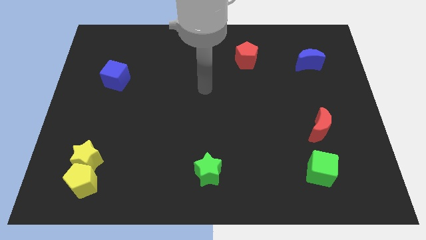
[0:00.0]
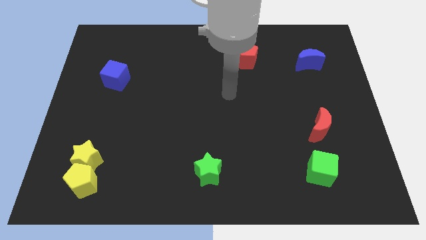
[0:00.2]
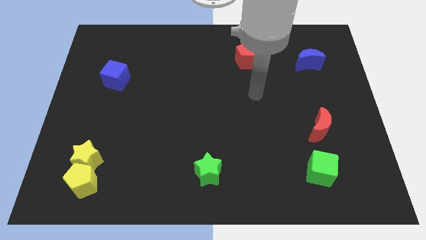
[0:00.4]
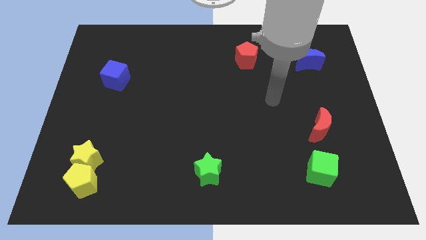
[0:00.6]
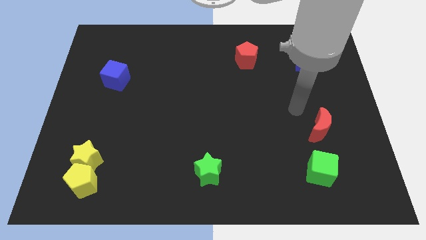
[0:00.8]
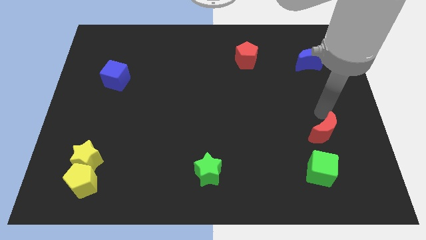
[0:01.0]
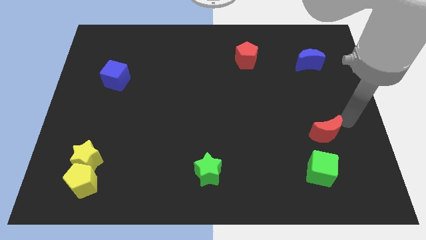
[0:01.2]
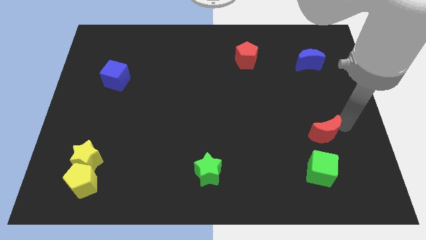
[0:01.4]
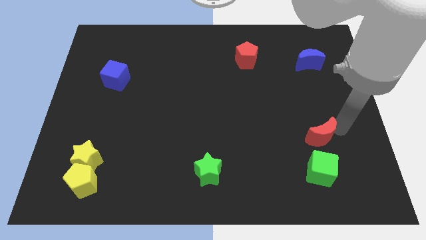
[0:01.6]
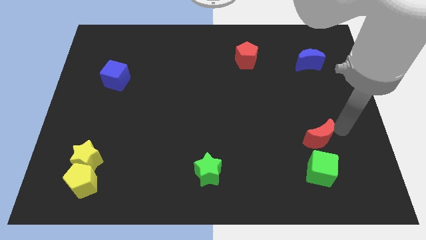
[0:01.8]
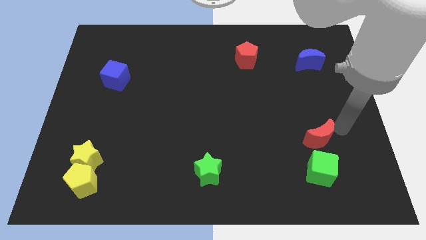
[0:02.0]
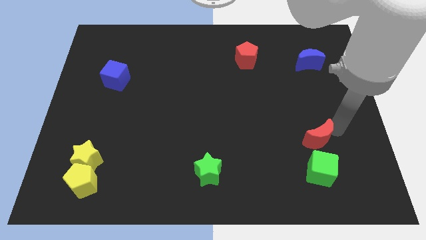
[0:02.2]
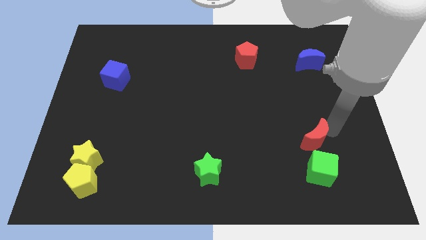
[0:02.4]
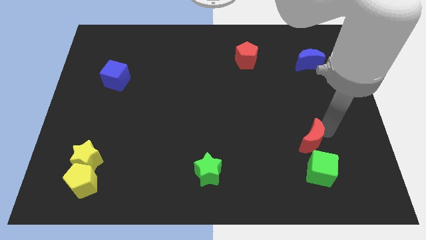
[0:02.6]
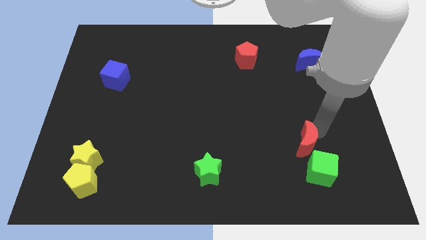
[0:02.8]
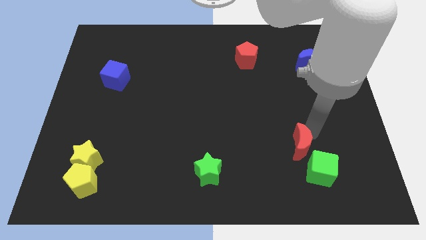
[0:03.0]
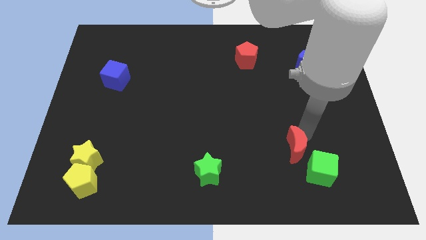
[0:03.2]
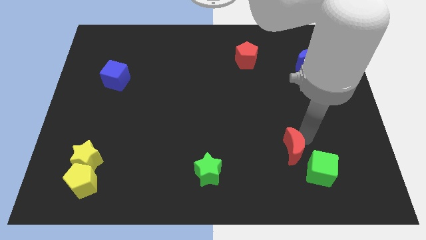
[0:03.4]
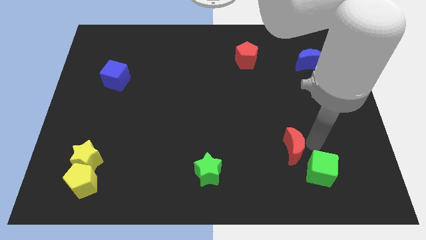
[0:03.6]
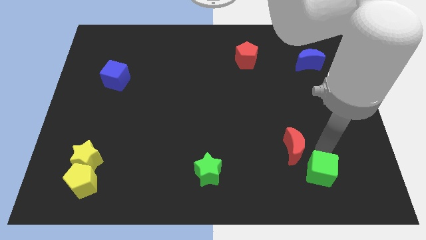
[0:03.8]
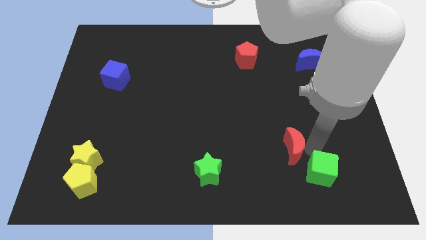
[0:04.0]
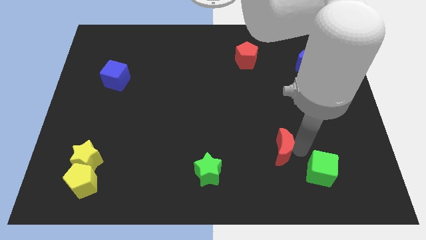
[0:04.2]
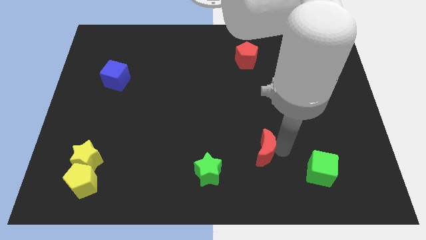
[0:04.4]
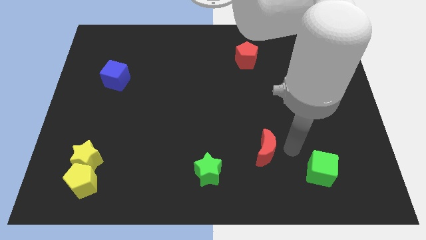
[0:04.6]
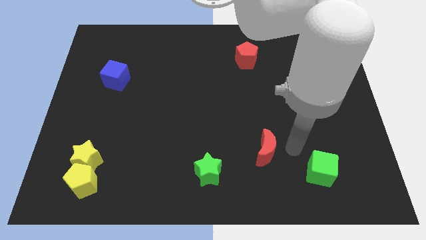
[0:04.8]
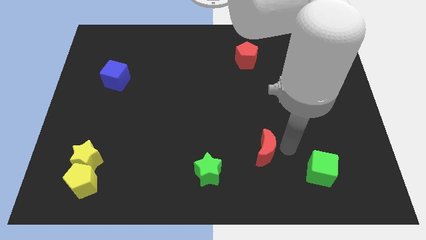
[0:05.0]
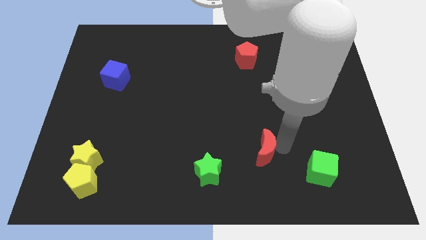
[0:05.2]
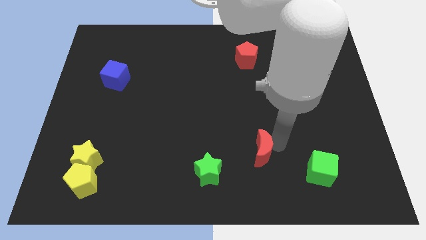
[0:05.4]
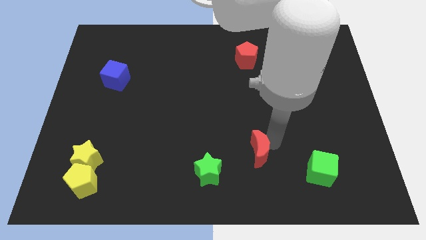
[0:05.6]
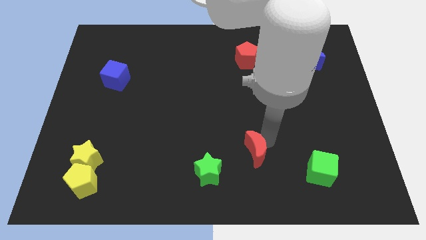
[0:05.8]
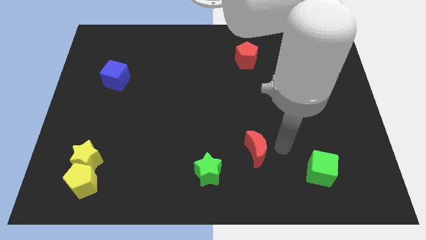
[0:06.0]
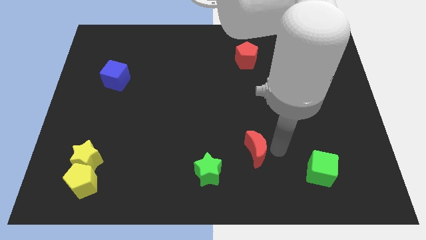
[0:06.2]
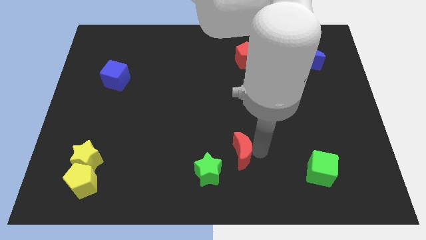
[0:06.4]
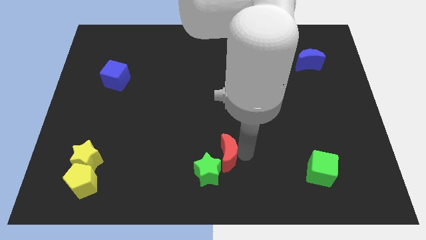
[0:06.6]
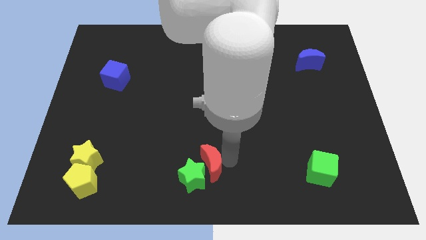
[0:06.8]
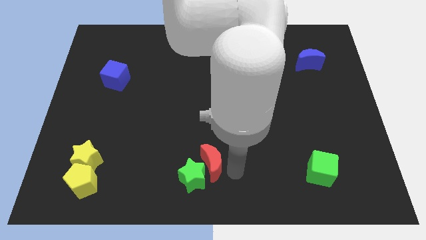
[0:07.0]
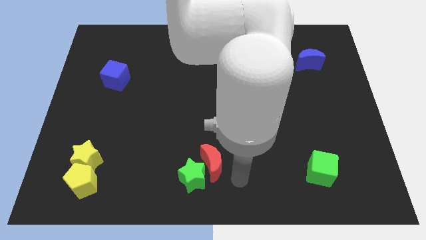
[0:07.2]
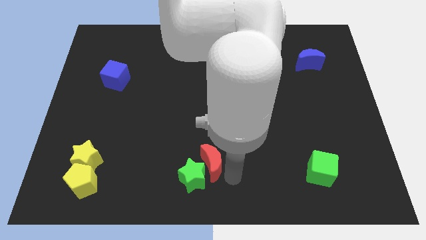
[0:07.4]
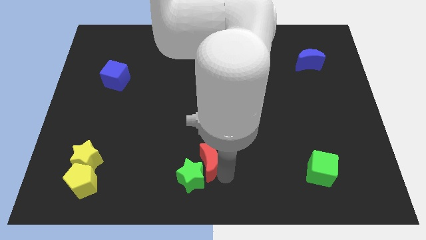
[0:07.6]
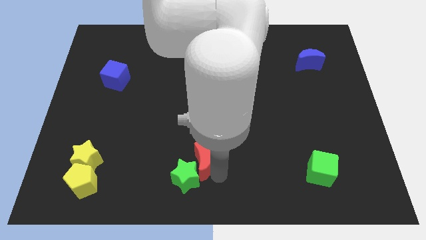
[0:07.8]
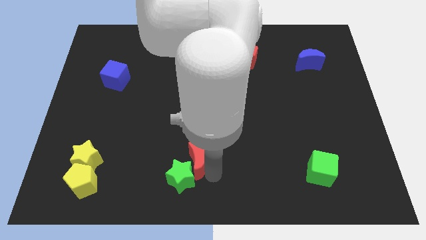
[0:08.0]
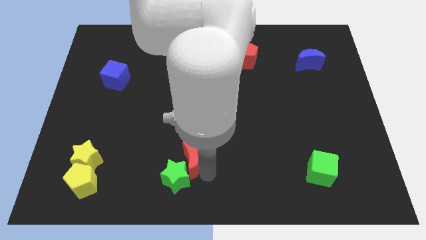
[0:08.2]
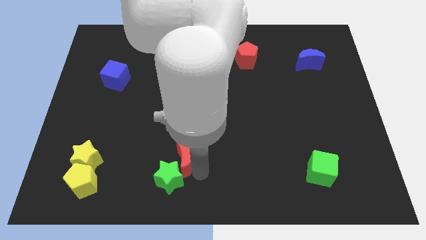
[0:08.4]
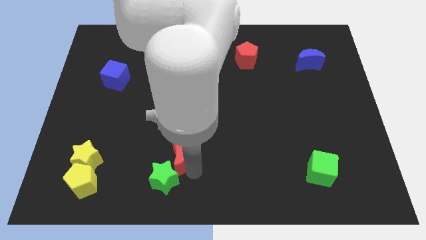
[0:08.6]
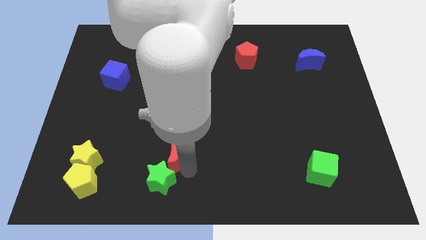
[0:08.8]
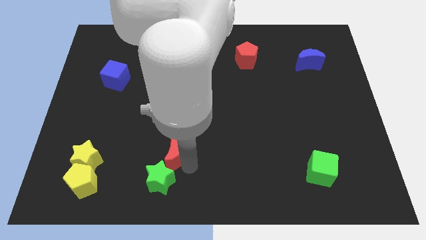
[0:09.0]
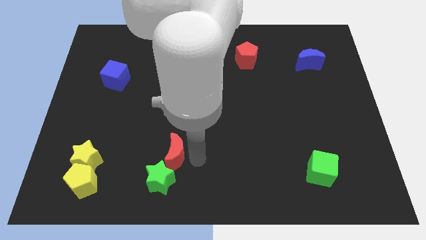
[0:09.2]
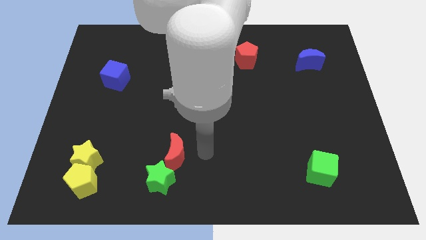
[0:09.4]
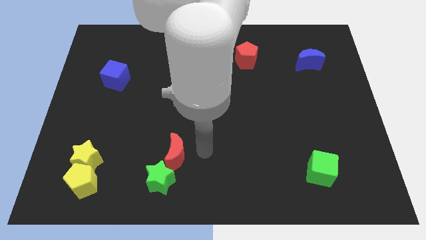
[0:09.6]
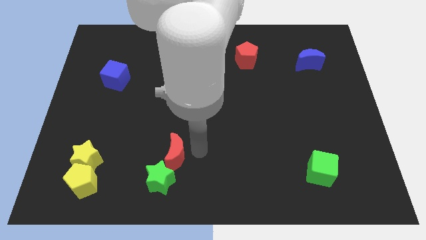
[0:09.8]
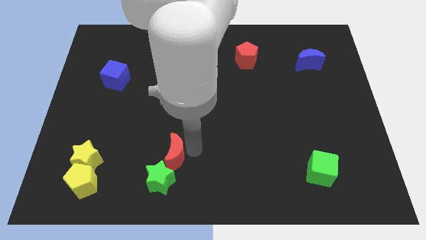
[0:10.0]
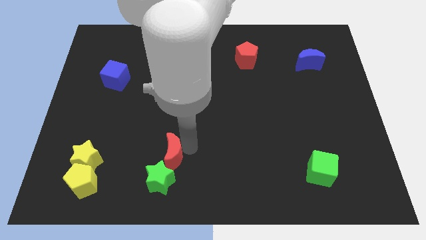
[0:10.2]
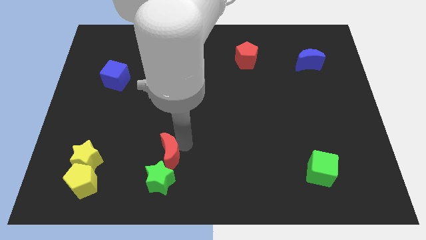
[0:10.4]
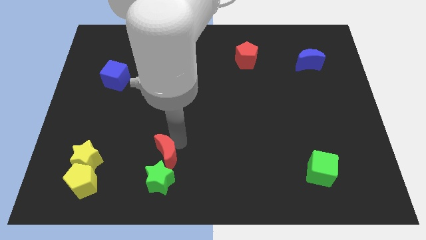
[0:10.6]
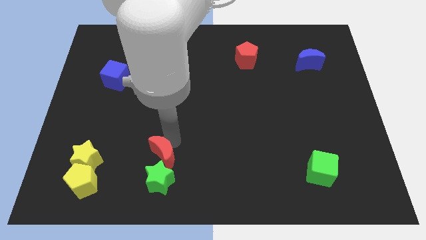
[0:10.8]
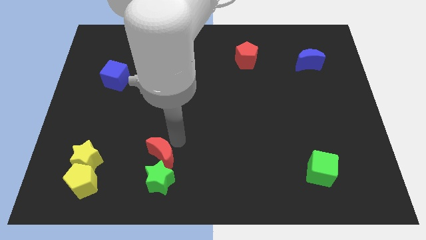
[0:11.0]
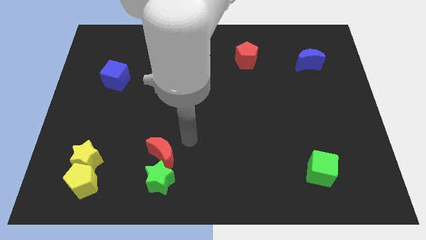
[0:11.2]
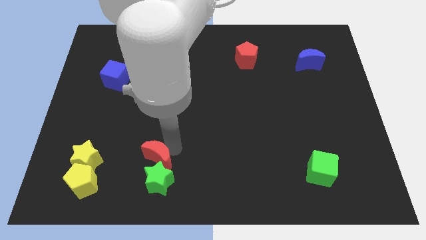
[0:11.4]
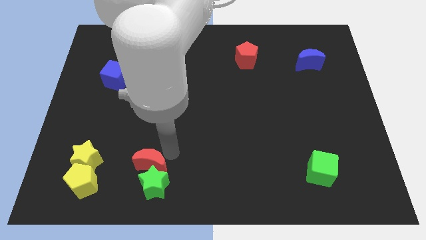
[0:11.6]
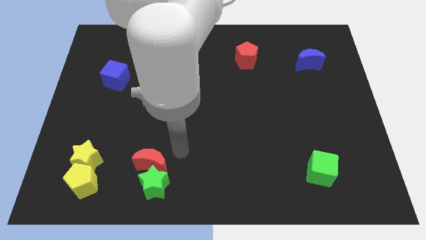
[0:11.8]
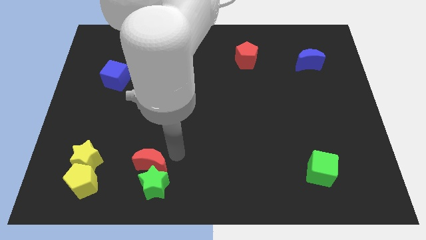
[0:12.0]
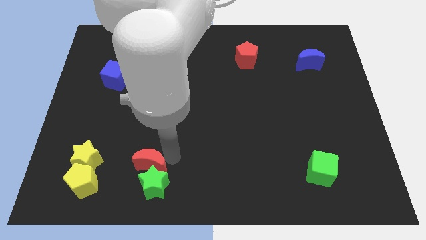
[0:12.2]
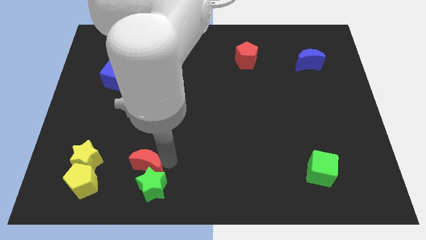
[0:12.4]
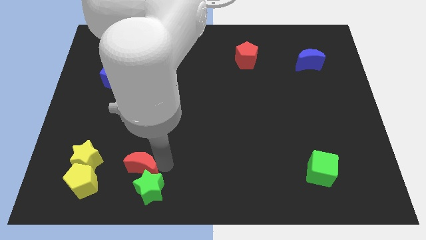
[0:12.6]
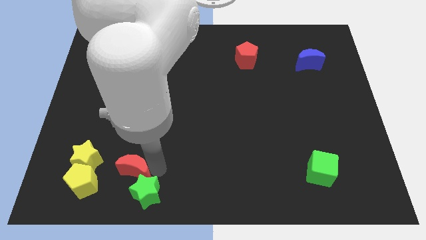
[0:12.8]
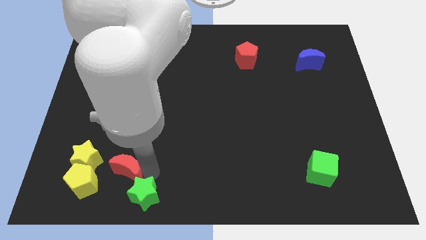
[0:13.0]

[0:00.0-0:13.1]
slide the red moon diagonally down and to the right of the yellow star

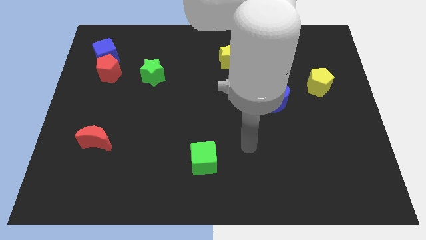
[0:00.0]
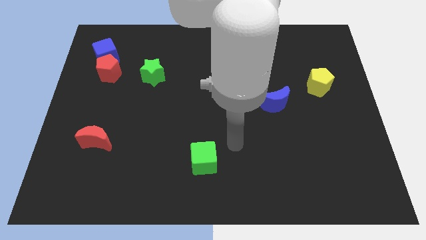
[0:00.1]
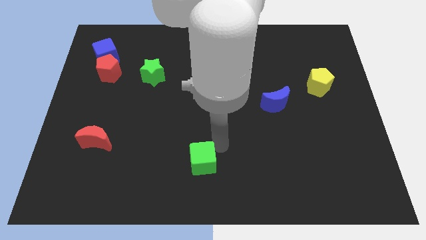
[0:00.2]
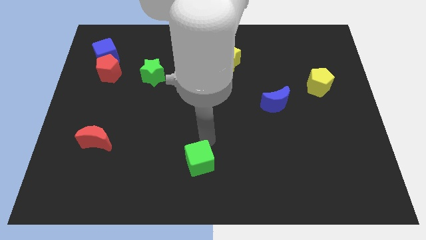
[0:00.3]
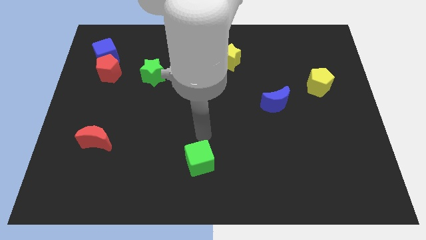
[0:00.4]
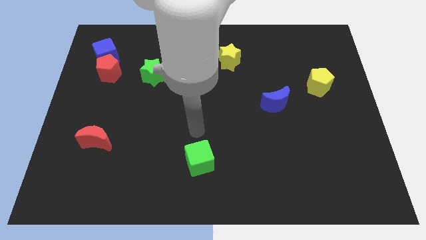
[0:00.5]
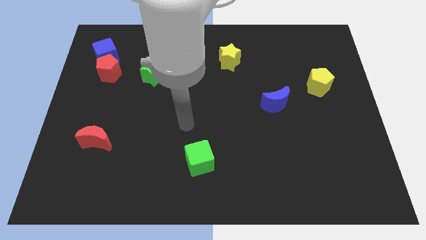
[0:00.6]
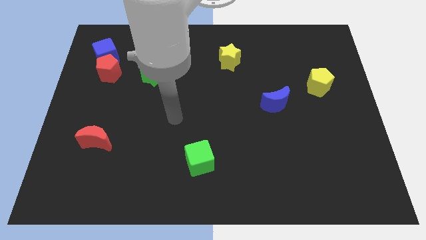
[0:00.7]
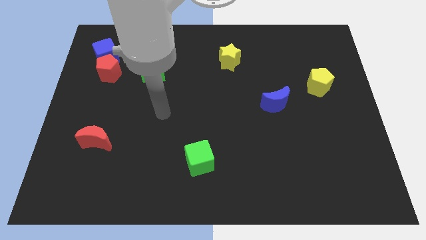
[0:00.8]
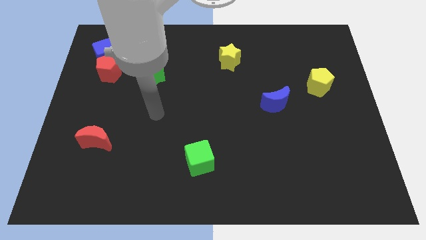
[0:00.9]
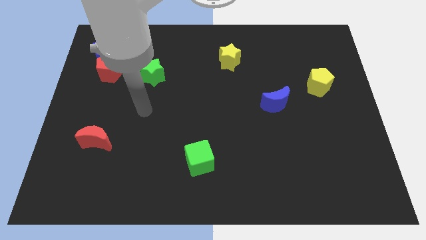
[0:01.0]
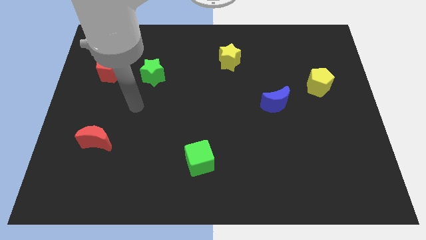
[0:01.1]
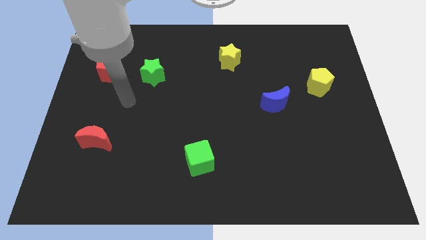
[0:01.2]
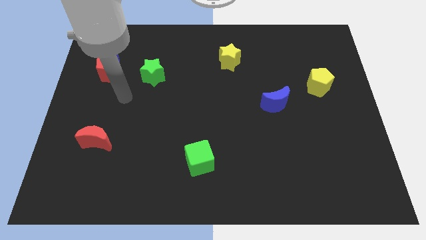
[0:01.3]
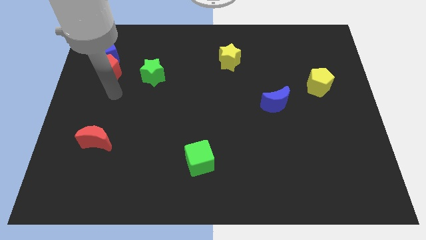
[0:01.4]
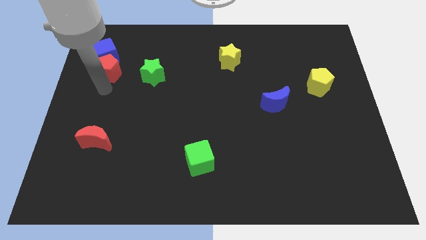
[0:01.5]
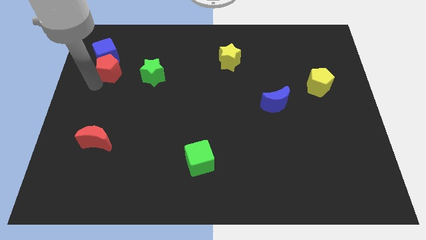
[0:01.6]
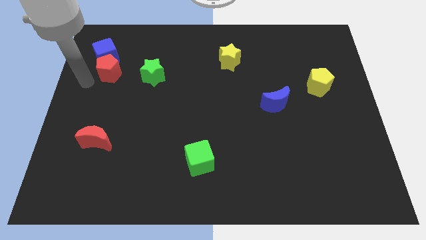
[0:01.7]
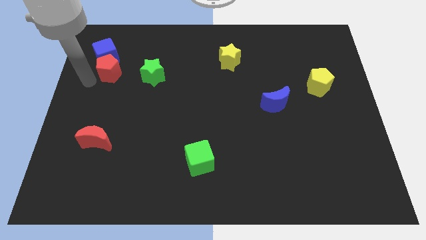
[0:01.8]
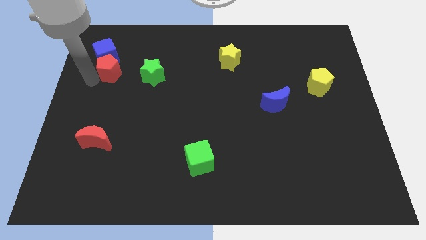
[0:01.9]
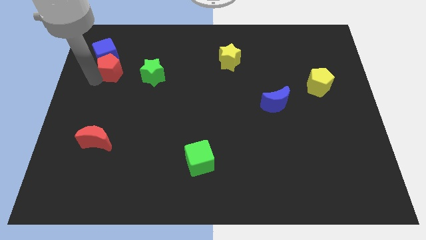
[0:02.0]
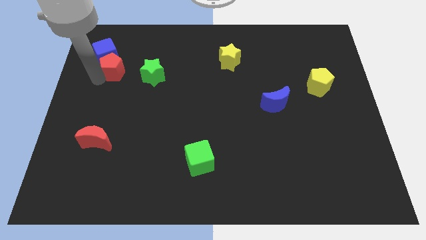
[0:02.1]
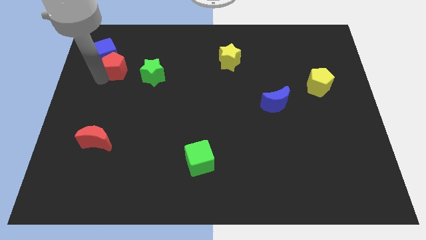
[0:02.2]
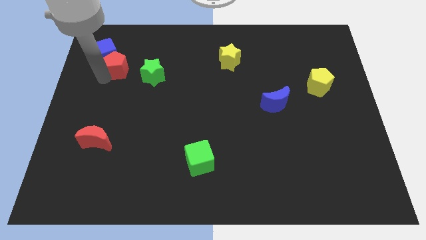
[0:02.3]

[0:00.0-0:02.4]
move the red pentagon just right of the blue cube
